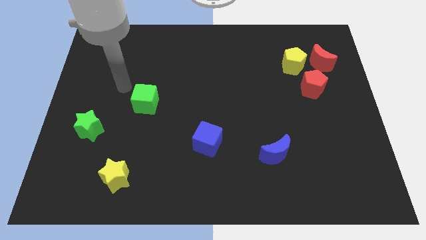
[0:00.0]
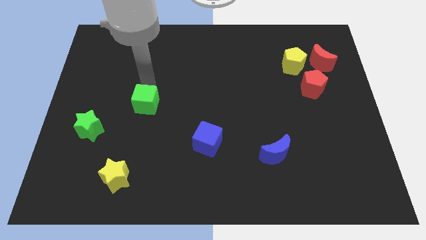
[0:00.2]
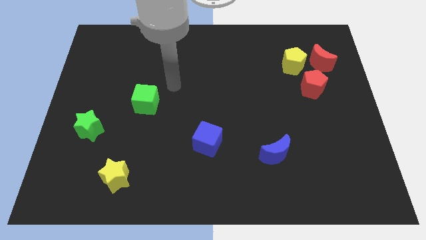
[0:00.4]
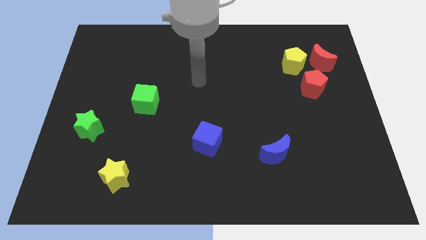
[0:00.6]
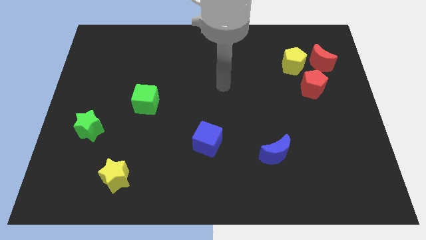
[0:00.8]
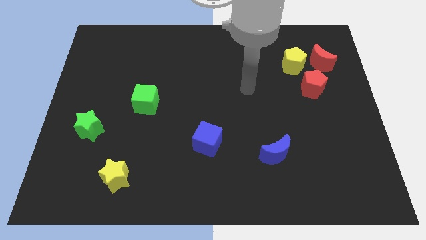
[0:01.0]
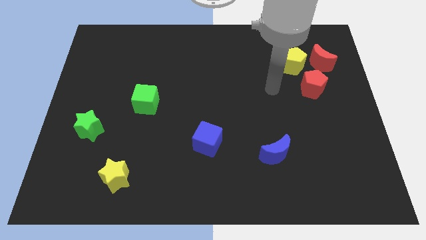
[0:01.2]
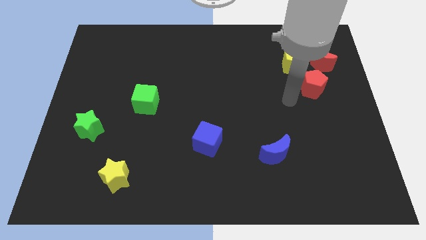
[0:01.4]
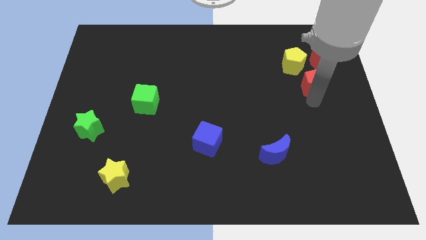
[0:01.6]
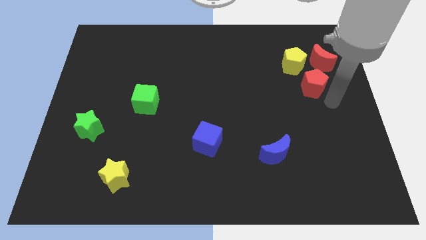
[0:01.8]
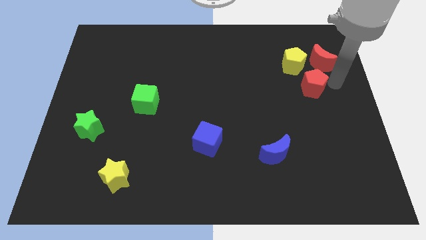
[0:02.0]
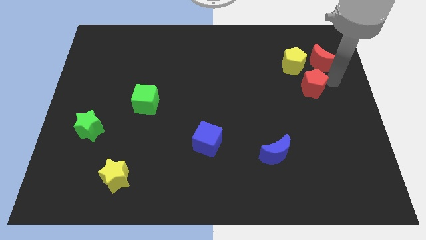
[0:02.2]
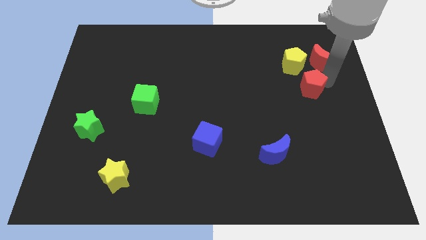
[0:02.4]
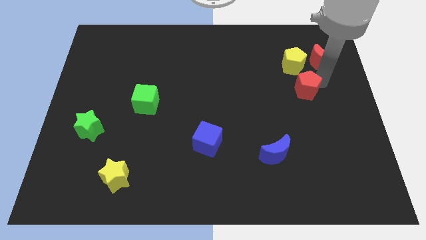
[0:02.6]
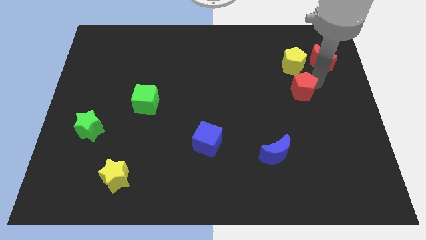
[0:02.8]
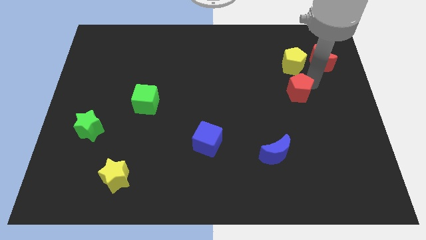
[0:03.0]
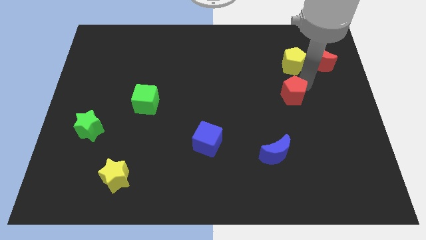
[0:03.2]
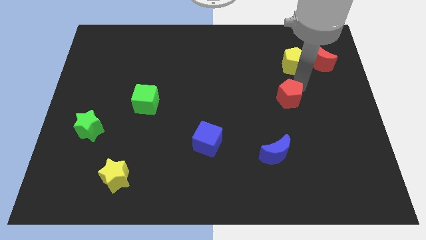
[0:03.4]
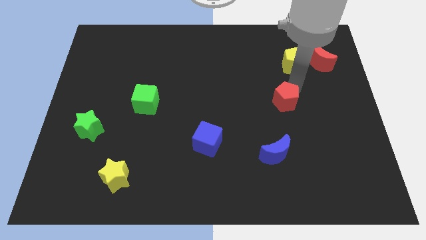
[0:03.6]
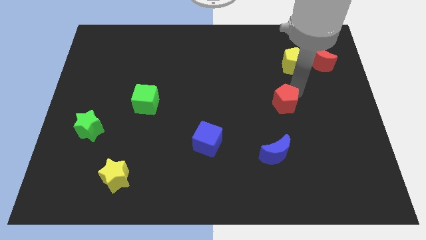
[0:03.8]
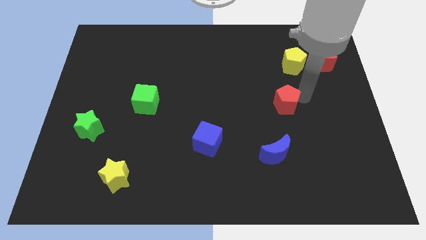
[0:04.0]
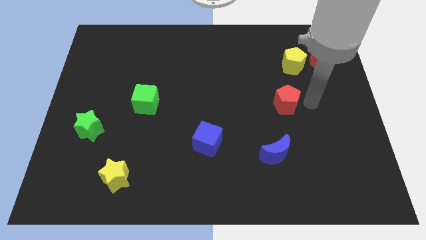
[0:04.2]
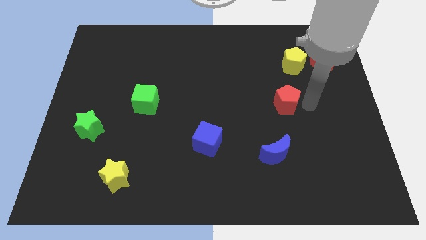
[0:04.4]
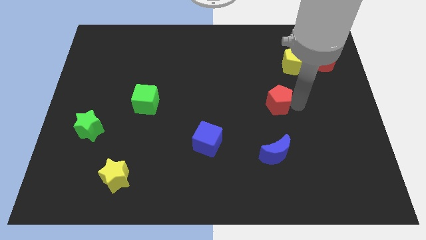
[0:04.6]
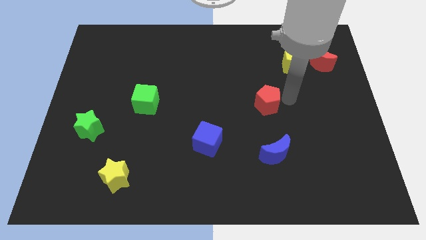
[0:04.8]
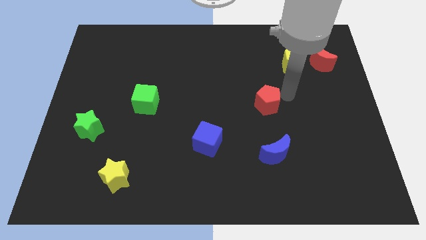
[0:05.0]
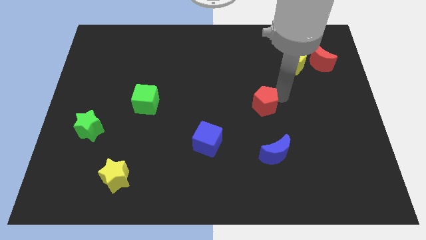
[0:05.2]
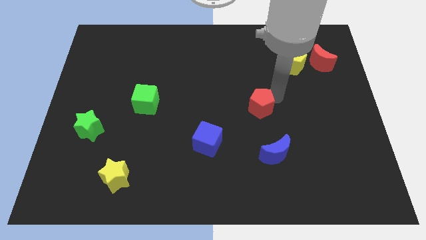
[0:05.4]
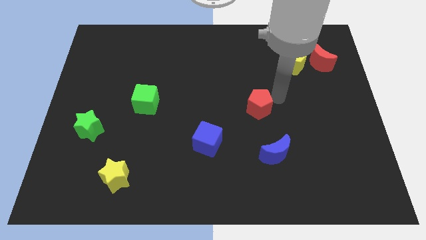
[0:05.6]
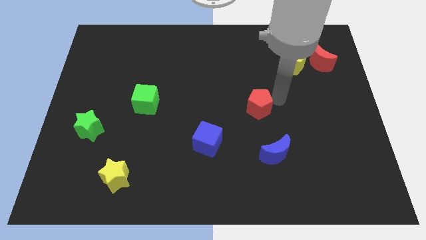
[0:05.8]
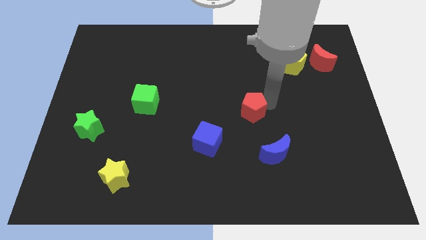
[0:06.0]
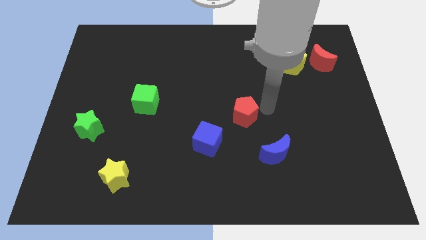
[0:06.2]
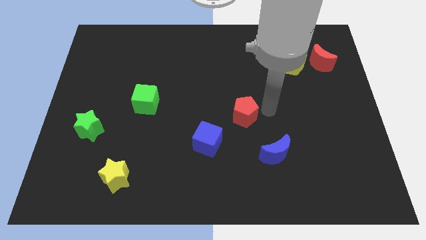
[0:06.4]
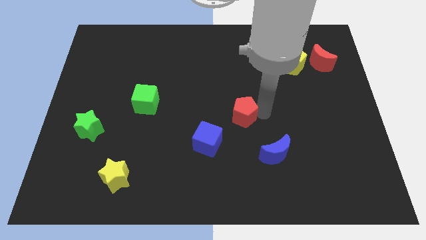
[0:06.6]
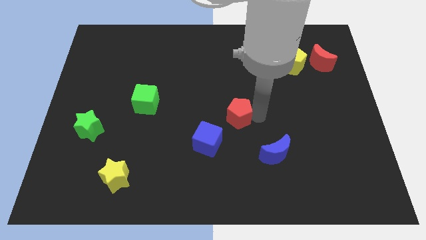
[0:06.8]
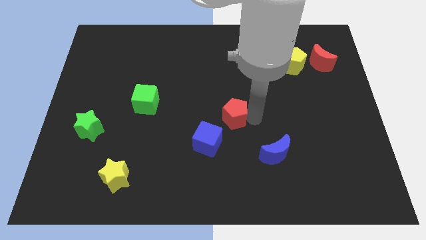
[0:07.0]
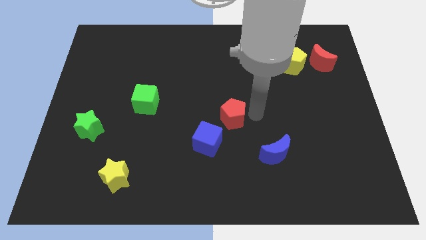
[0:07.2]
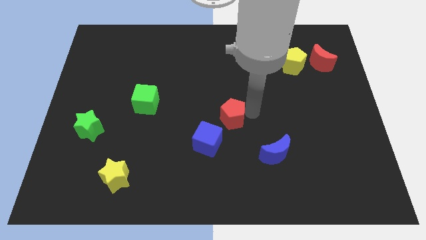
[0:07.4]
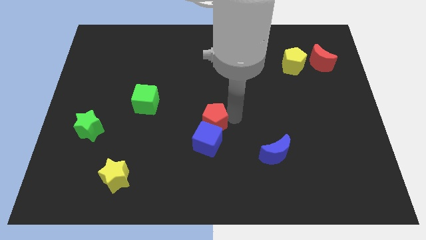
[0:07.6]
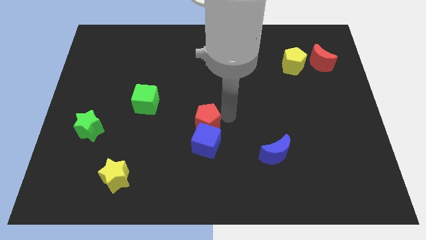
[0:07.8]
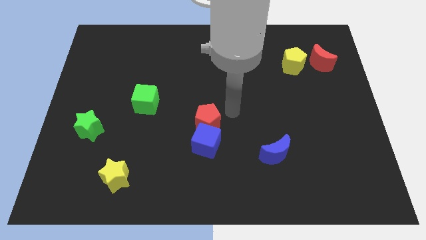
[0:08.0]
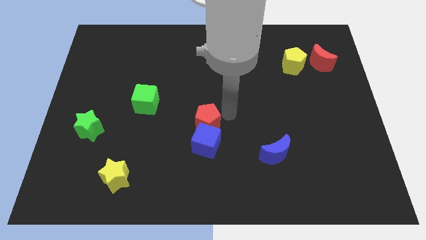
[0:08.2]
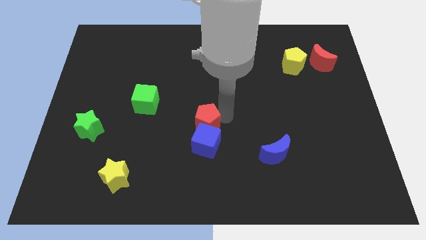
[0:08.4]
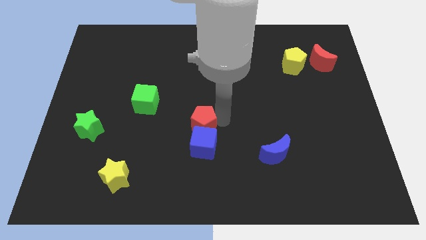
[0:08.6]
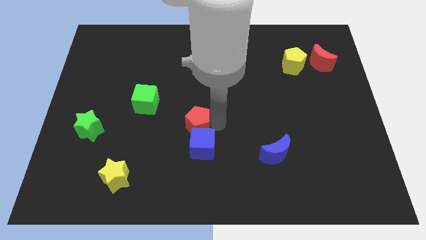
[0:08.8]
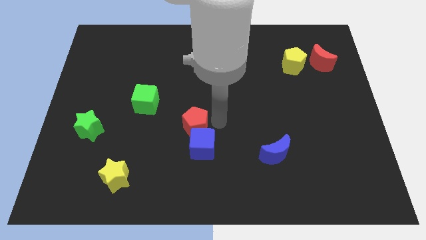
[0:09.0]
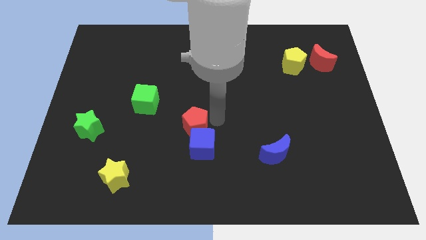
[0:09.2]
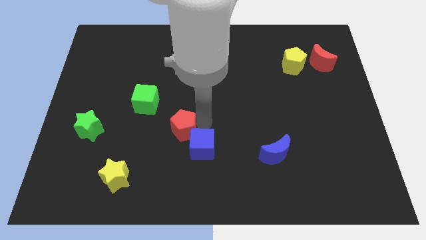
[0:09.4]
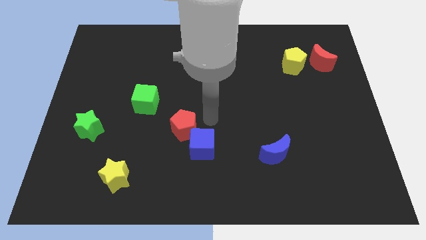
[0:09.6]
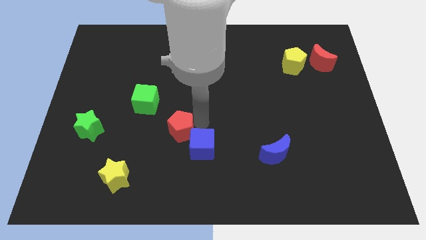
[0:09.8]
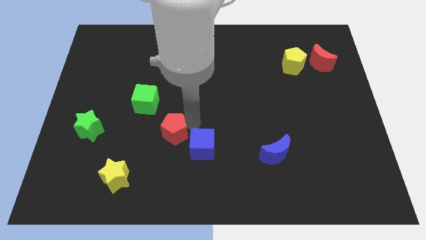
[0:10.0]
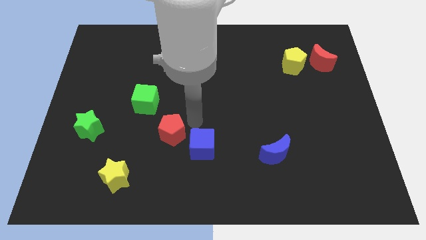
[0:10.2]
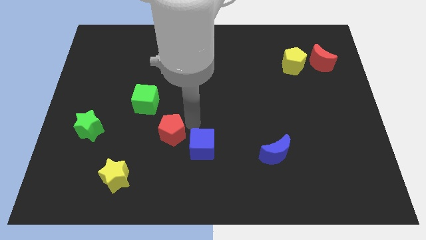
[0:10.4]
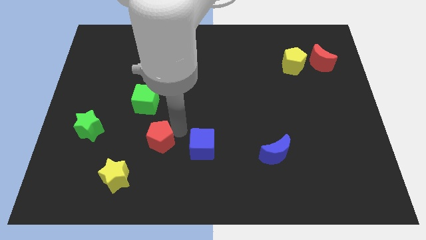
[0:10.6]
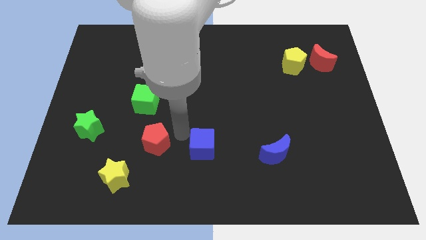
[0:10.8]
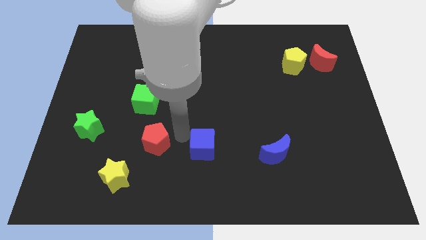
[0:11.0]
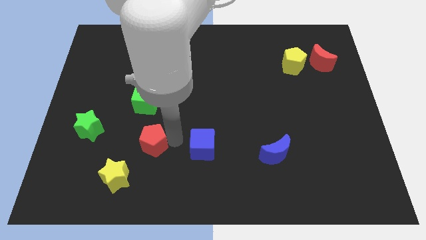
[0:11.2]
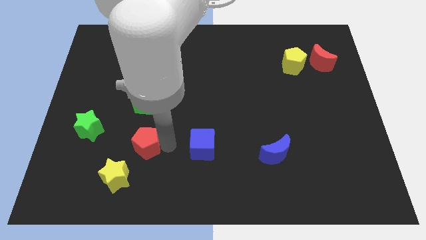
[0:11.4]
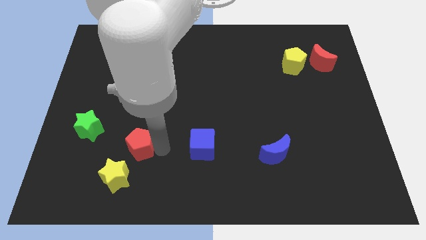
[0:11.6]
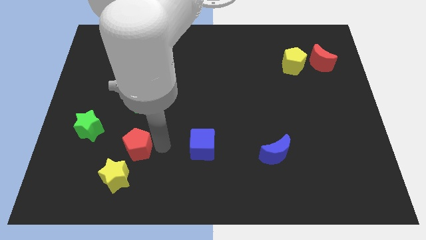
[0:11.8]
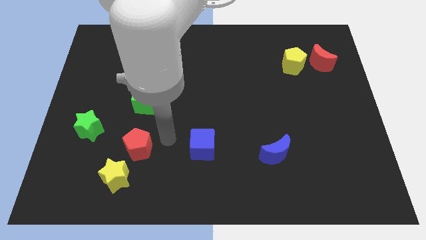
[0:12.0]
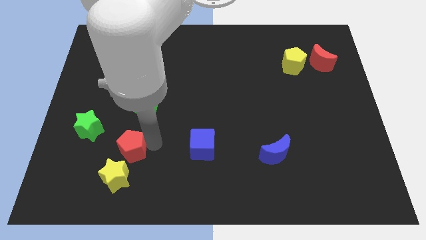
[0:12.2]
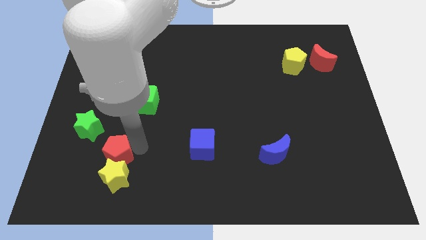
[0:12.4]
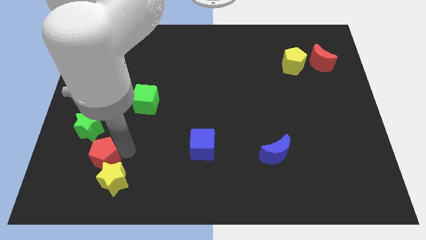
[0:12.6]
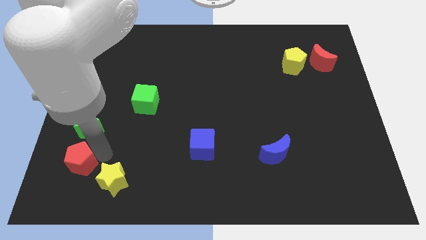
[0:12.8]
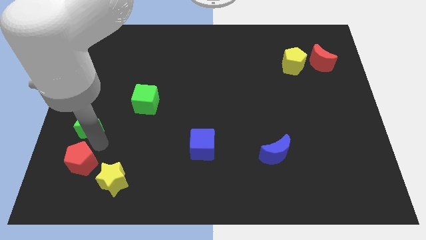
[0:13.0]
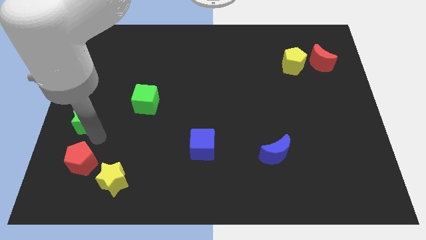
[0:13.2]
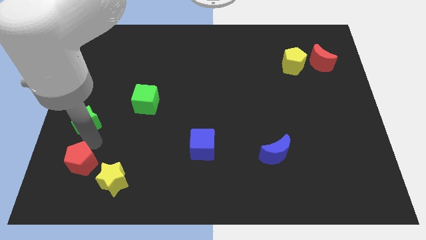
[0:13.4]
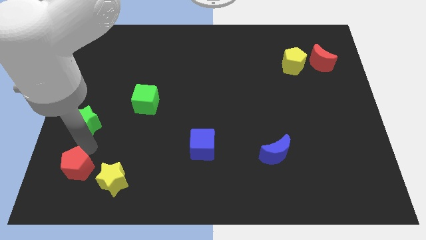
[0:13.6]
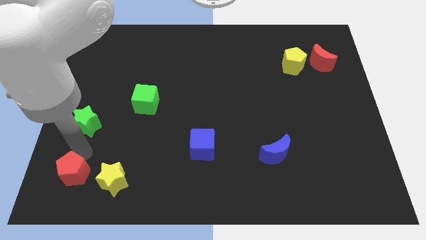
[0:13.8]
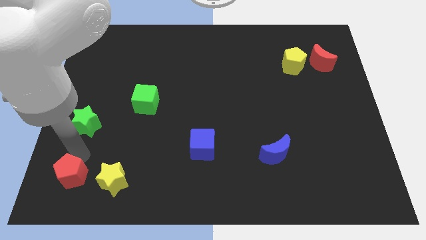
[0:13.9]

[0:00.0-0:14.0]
push the red pentagon to the bottom left of the board
